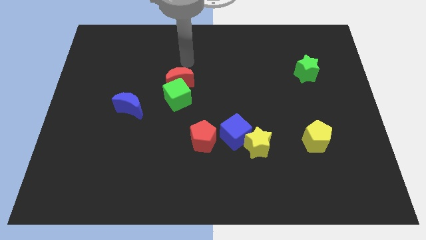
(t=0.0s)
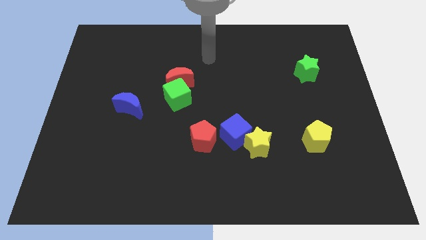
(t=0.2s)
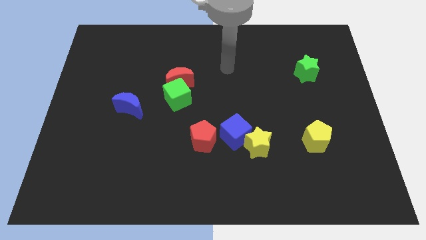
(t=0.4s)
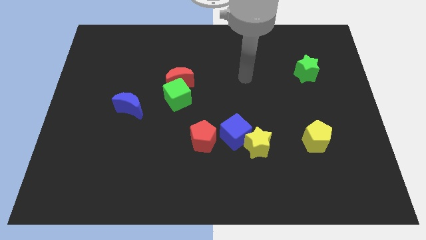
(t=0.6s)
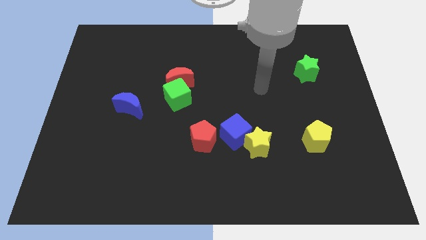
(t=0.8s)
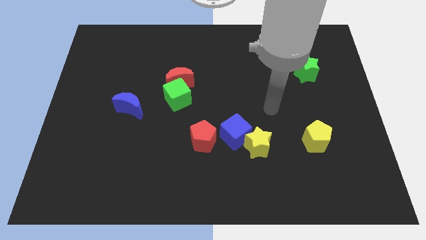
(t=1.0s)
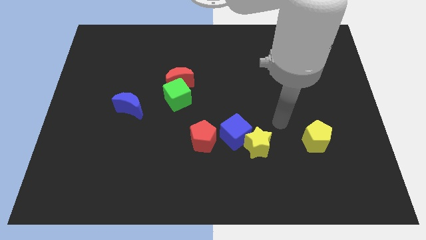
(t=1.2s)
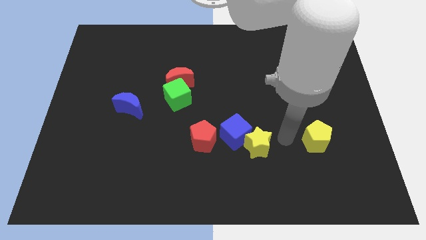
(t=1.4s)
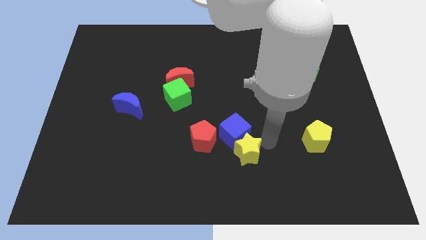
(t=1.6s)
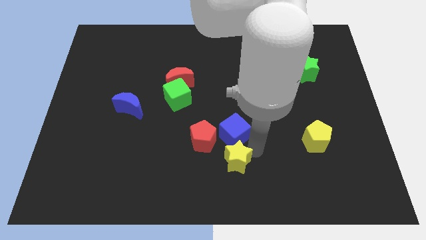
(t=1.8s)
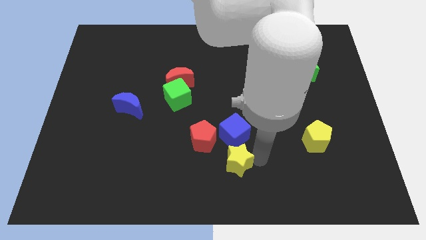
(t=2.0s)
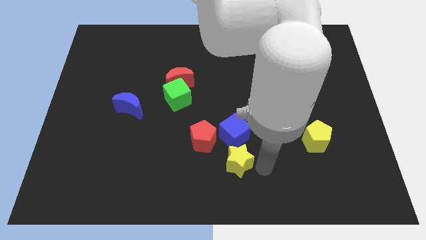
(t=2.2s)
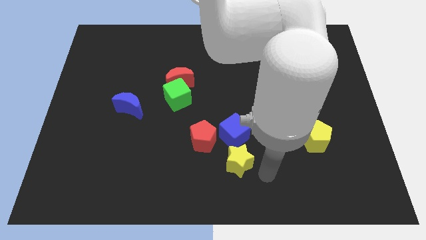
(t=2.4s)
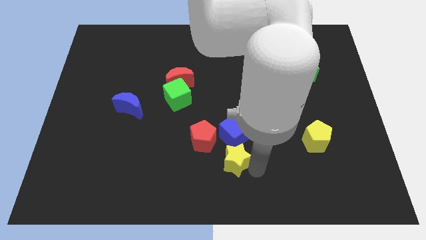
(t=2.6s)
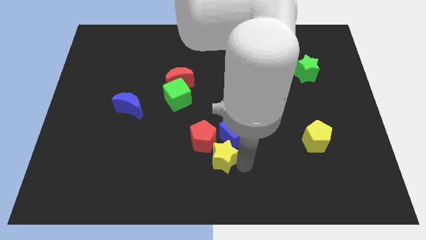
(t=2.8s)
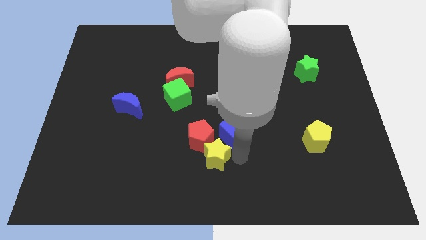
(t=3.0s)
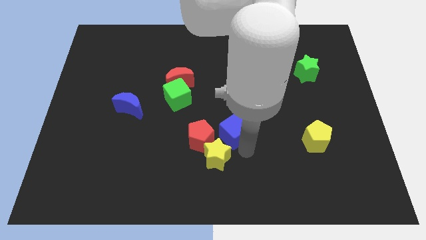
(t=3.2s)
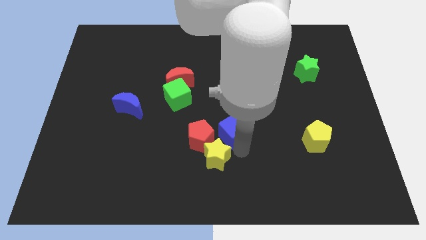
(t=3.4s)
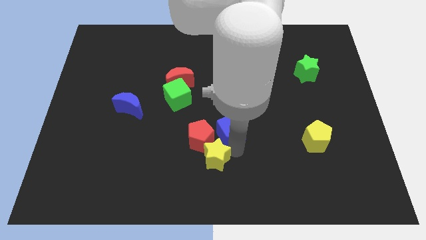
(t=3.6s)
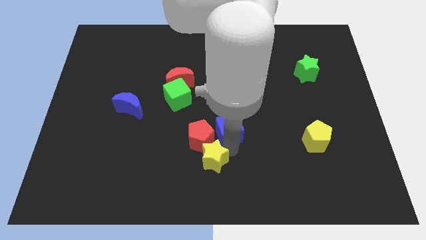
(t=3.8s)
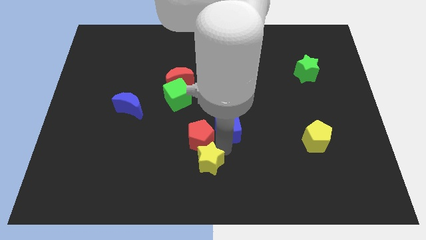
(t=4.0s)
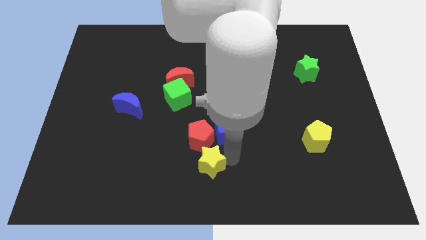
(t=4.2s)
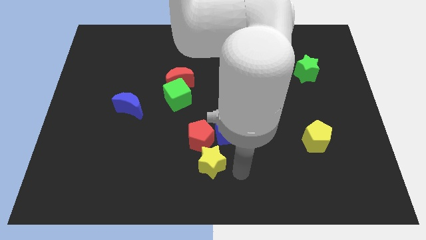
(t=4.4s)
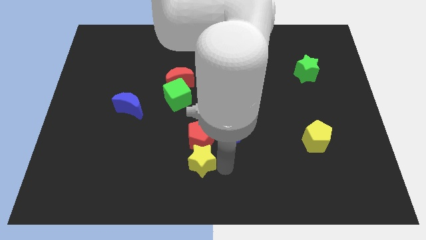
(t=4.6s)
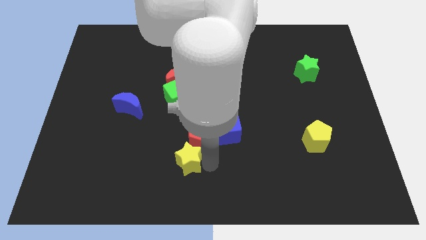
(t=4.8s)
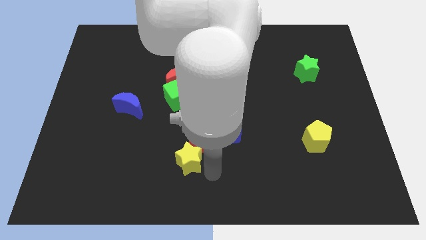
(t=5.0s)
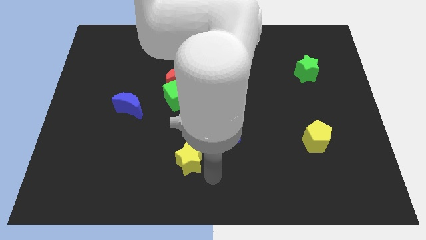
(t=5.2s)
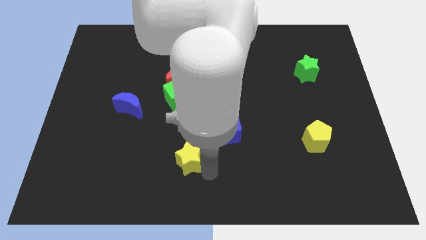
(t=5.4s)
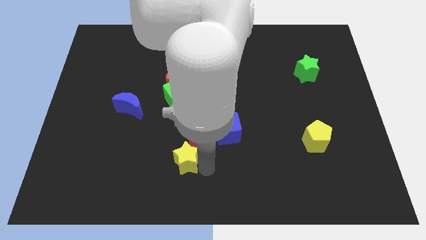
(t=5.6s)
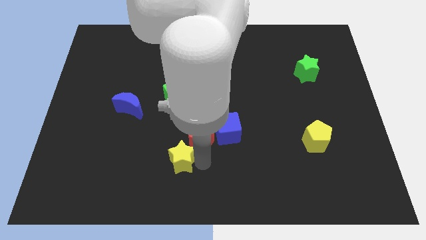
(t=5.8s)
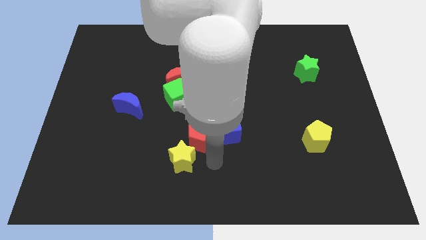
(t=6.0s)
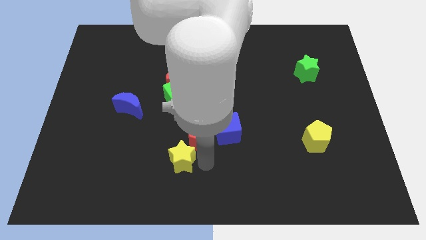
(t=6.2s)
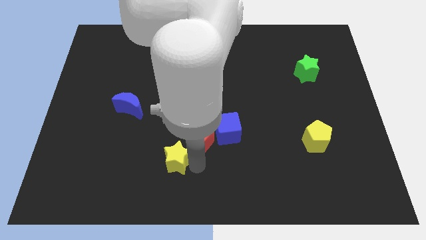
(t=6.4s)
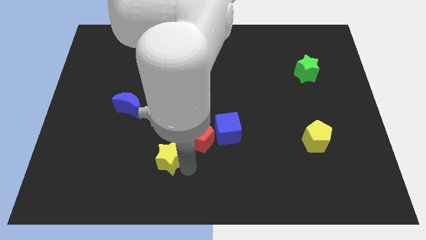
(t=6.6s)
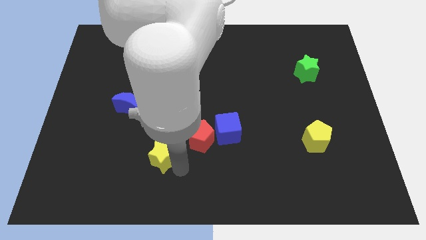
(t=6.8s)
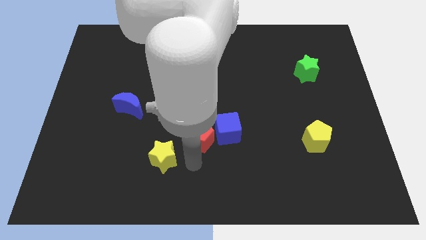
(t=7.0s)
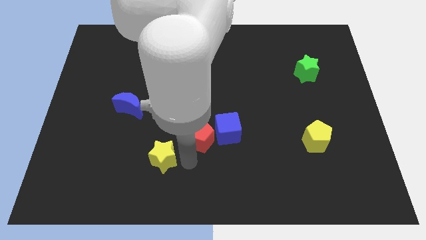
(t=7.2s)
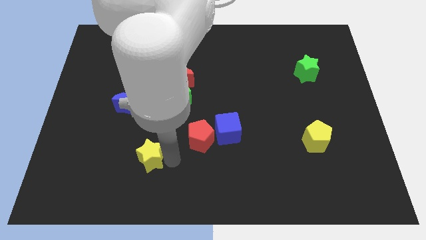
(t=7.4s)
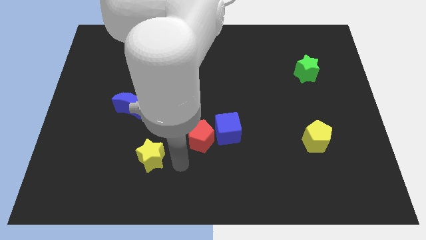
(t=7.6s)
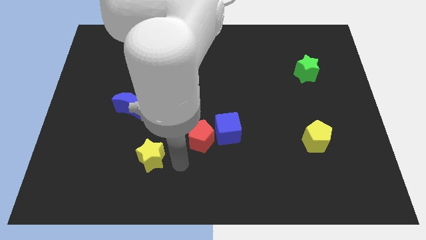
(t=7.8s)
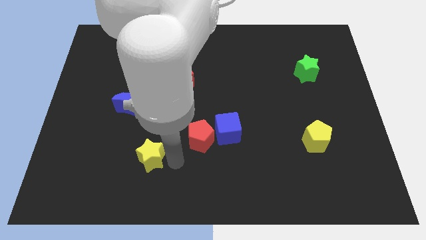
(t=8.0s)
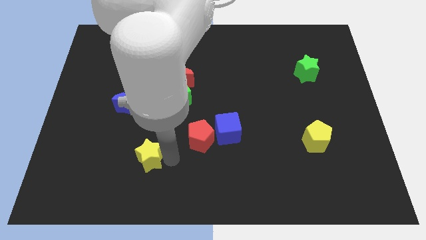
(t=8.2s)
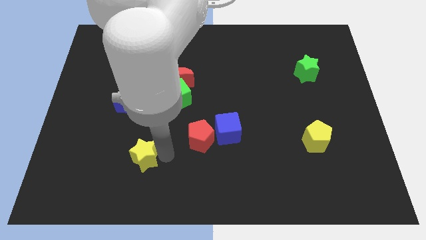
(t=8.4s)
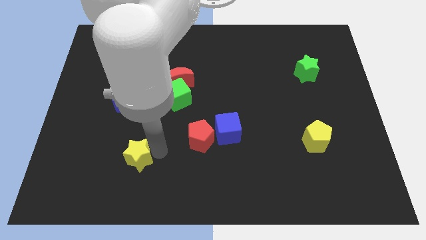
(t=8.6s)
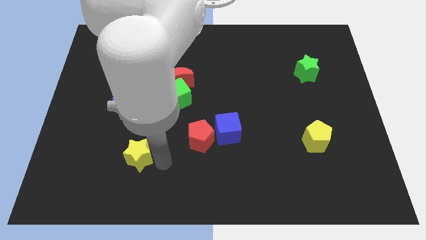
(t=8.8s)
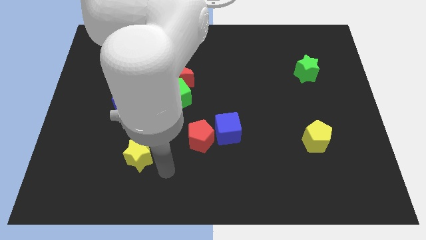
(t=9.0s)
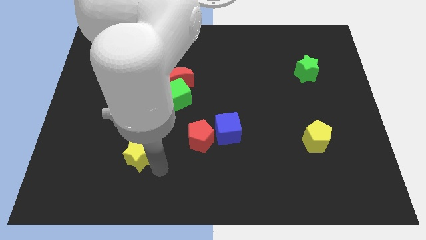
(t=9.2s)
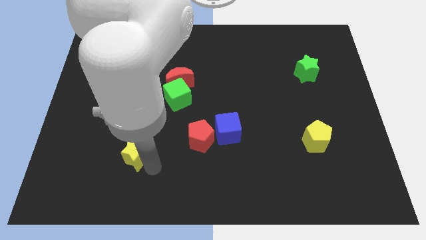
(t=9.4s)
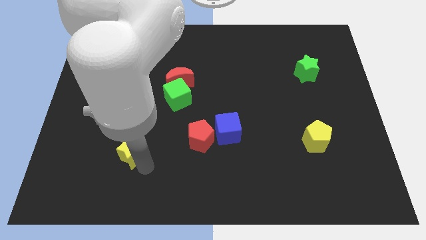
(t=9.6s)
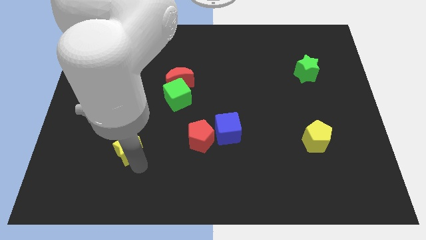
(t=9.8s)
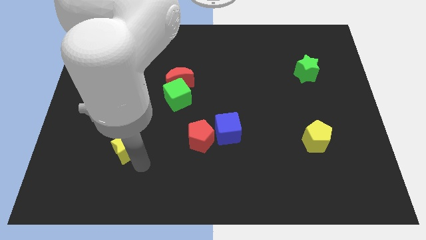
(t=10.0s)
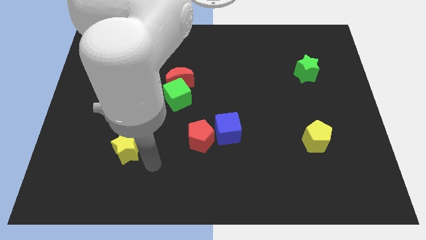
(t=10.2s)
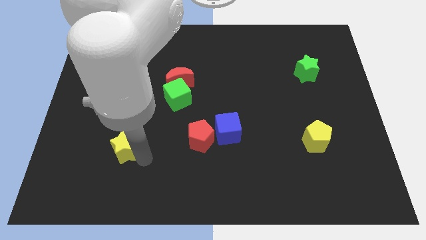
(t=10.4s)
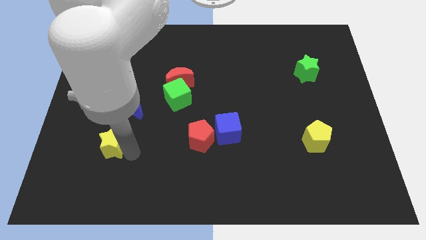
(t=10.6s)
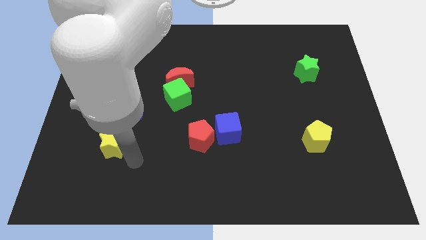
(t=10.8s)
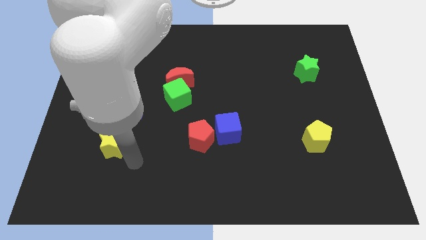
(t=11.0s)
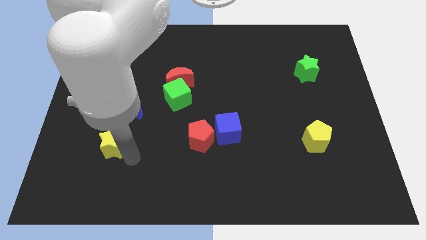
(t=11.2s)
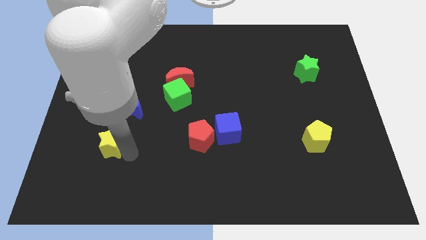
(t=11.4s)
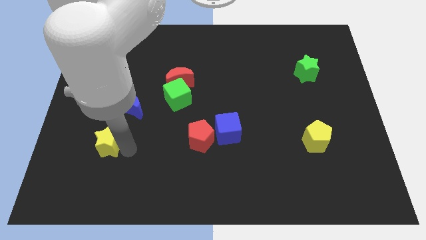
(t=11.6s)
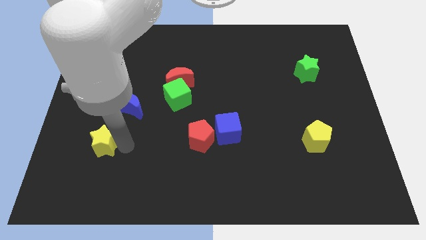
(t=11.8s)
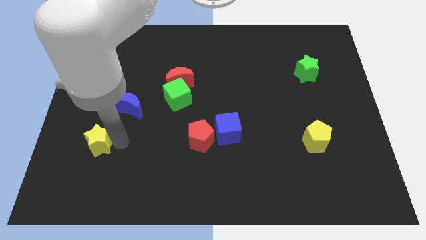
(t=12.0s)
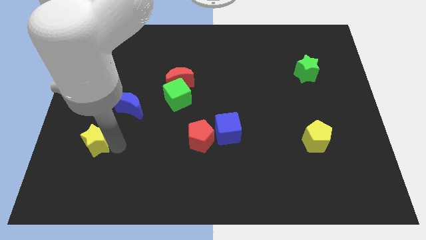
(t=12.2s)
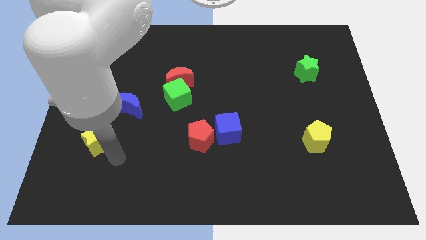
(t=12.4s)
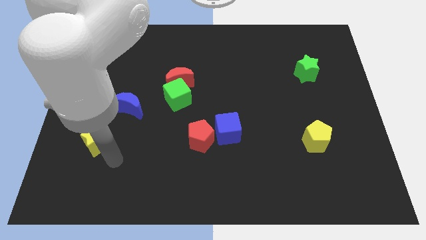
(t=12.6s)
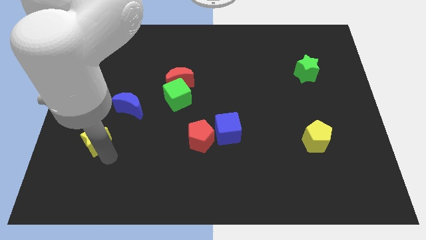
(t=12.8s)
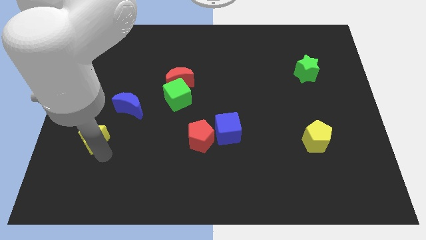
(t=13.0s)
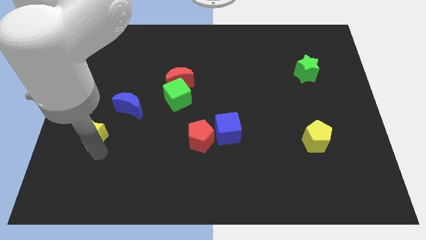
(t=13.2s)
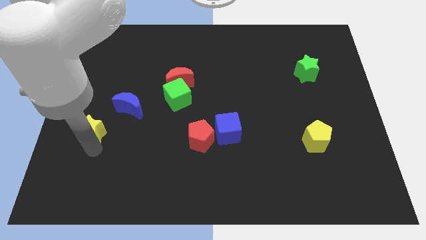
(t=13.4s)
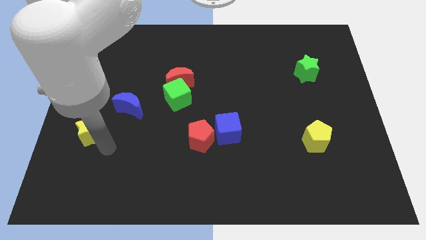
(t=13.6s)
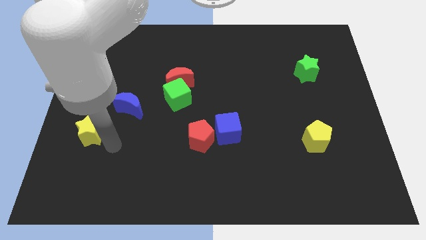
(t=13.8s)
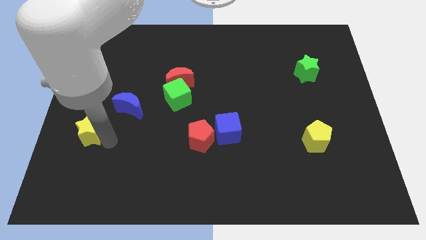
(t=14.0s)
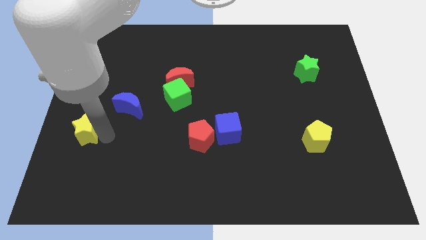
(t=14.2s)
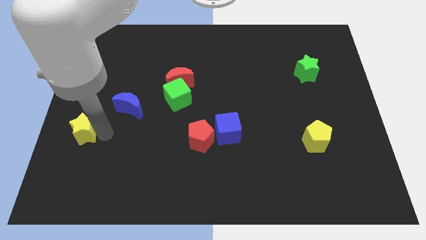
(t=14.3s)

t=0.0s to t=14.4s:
put the yellow star to the center left

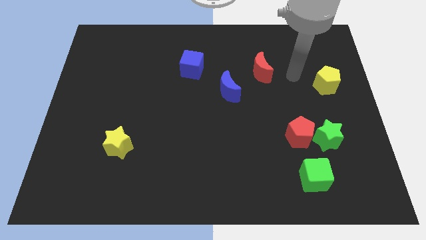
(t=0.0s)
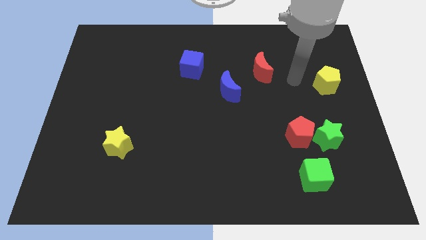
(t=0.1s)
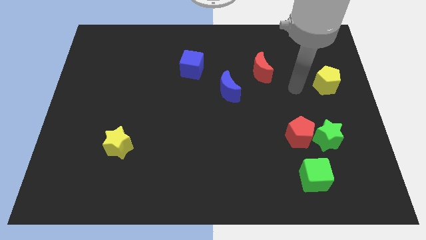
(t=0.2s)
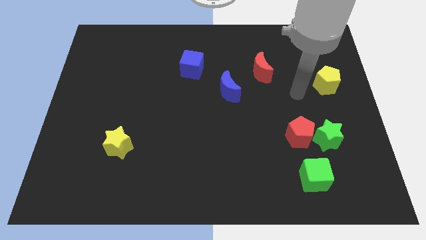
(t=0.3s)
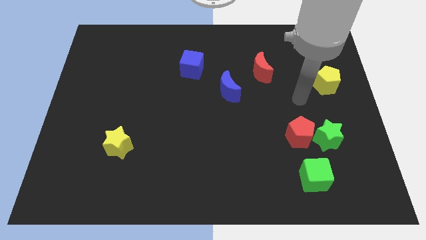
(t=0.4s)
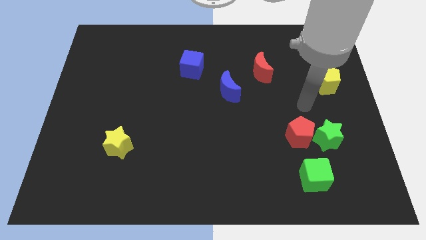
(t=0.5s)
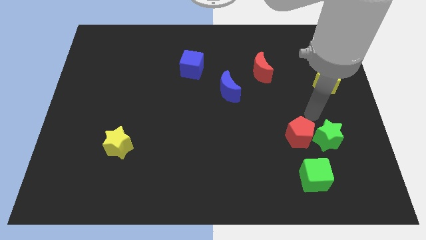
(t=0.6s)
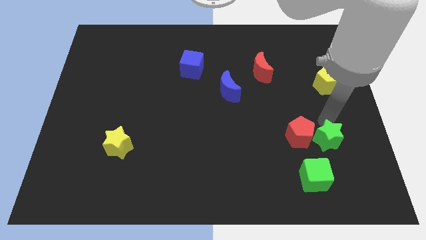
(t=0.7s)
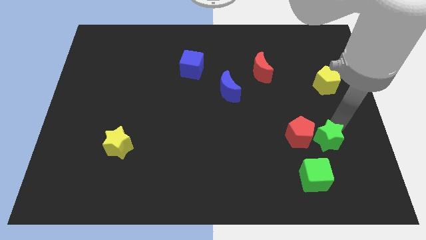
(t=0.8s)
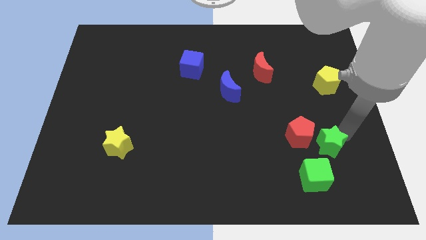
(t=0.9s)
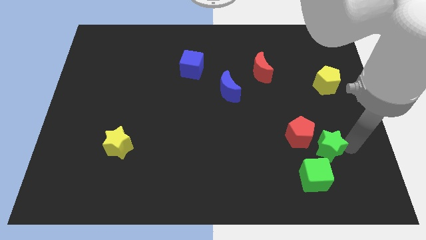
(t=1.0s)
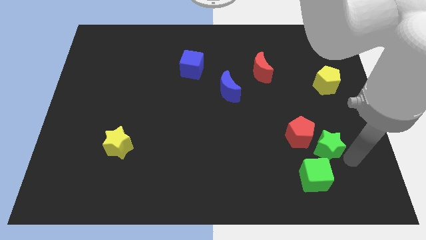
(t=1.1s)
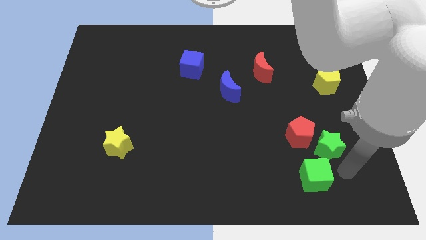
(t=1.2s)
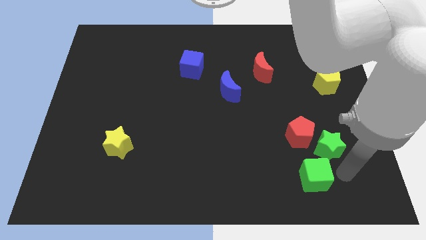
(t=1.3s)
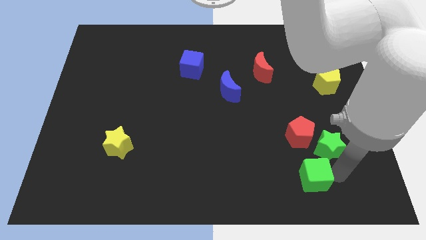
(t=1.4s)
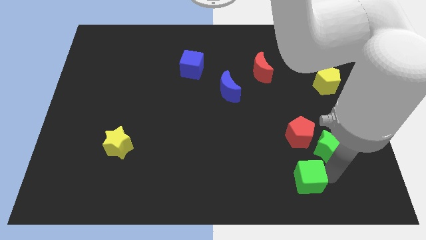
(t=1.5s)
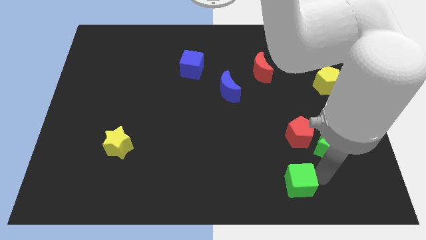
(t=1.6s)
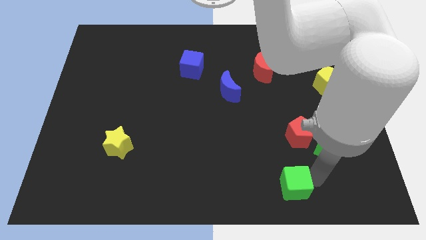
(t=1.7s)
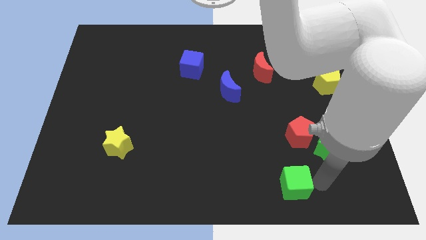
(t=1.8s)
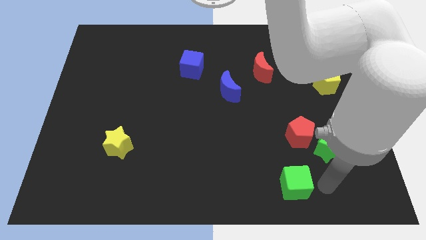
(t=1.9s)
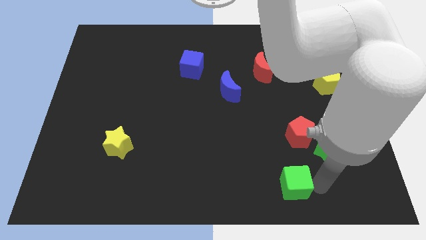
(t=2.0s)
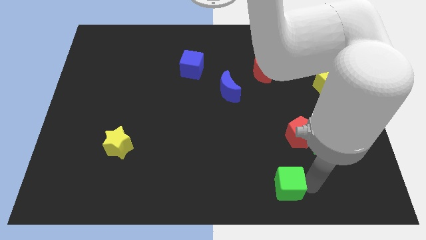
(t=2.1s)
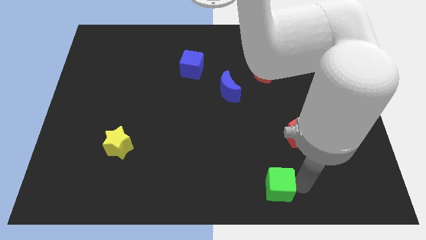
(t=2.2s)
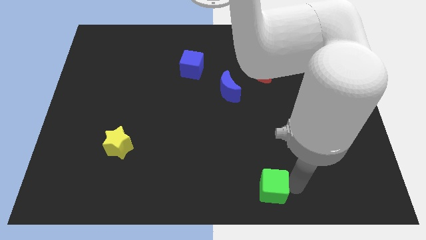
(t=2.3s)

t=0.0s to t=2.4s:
push the green cube to the bottom side
